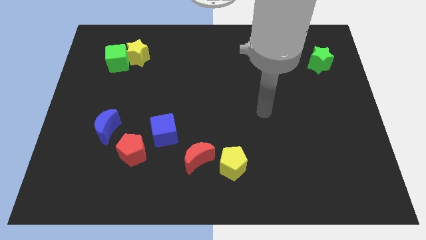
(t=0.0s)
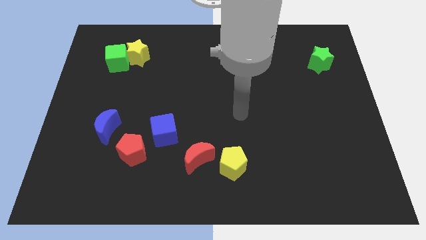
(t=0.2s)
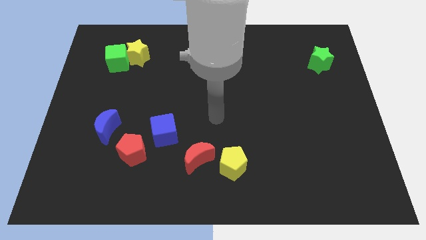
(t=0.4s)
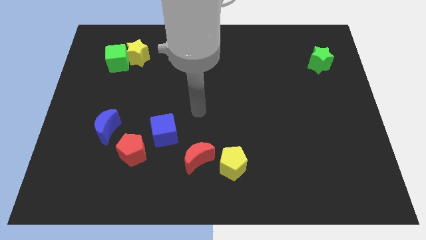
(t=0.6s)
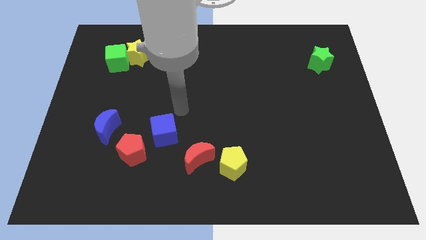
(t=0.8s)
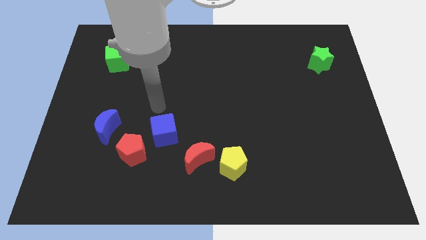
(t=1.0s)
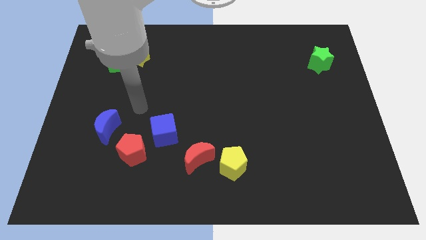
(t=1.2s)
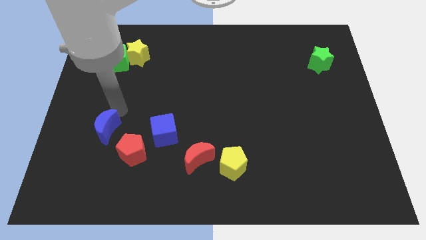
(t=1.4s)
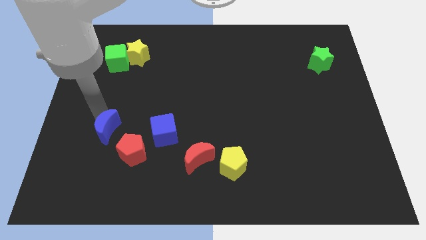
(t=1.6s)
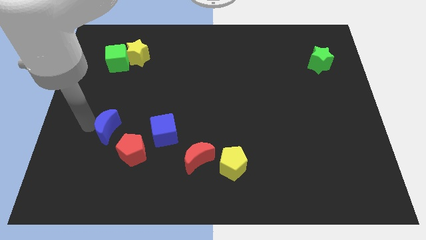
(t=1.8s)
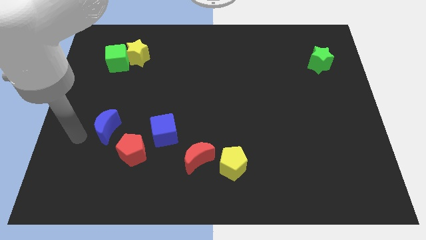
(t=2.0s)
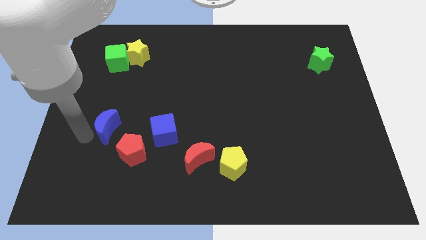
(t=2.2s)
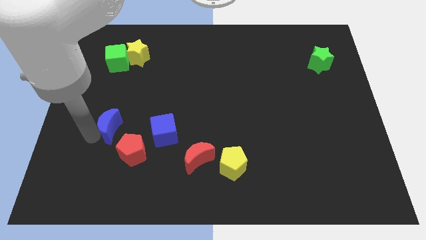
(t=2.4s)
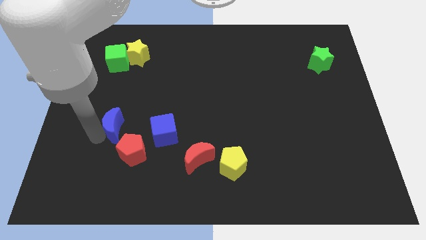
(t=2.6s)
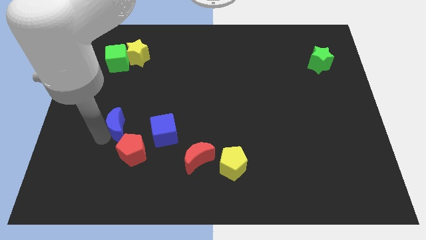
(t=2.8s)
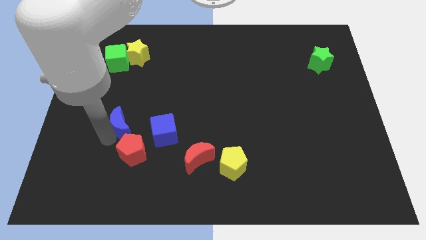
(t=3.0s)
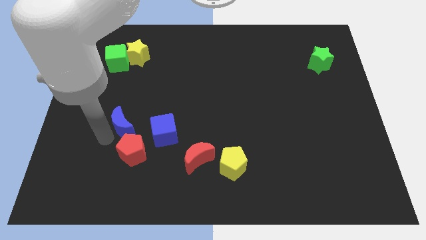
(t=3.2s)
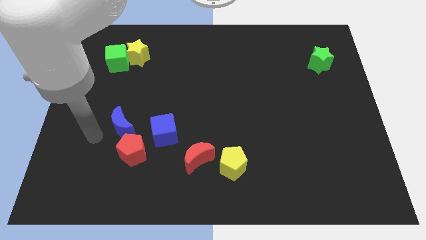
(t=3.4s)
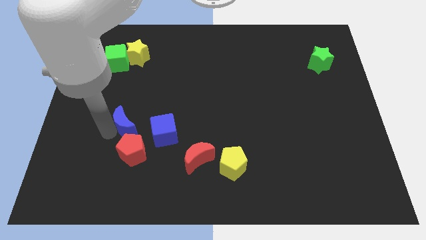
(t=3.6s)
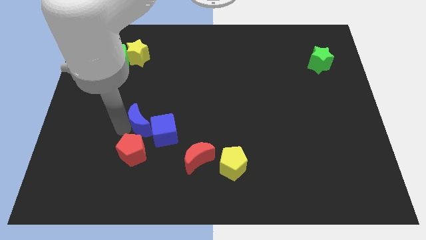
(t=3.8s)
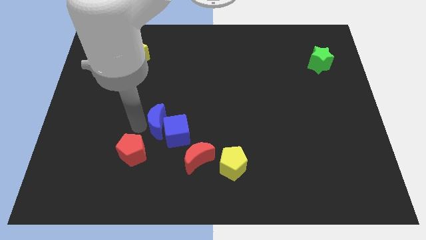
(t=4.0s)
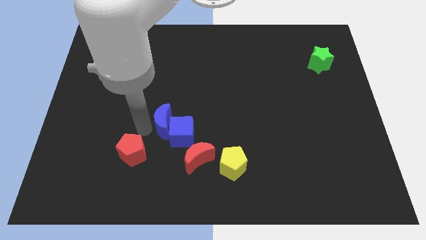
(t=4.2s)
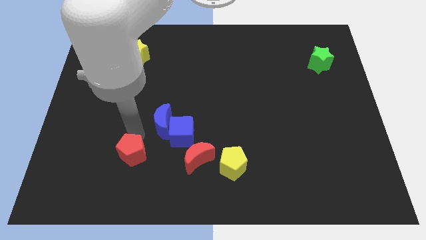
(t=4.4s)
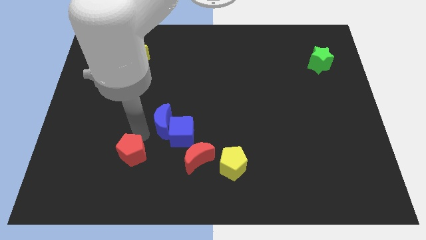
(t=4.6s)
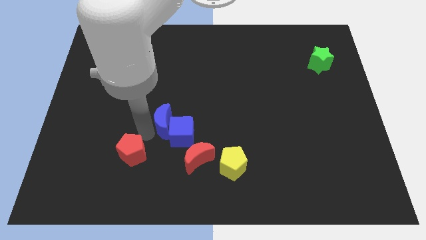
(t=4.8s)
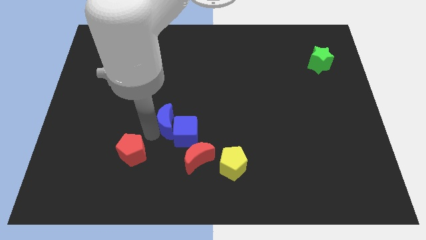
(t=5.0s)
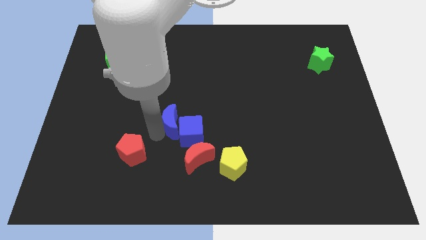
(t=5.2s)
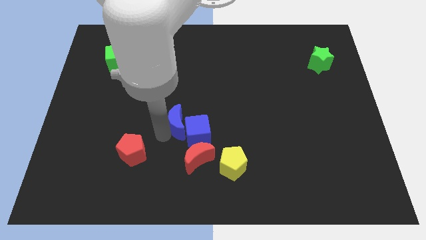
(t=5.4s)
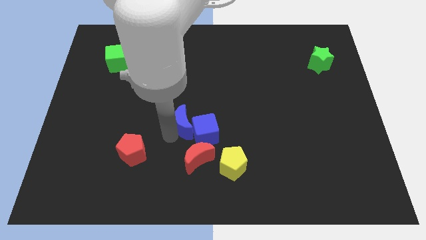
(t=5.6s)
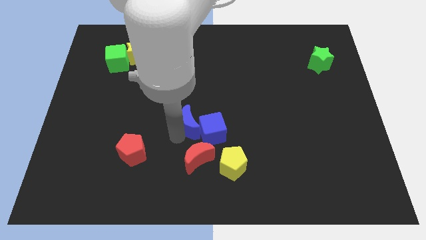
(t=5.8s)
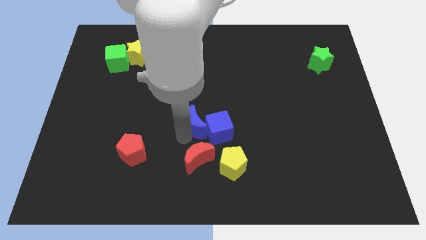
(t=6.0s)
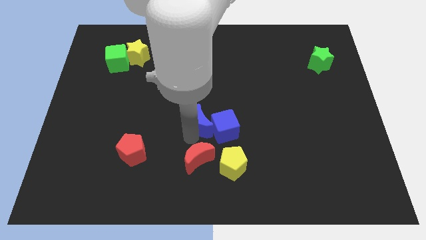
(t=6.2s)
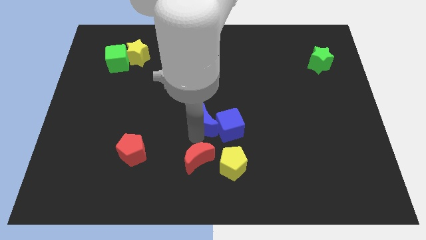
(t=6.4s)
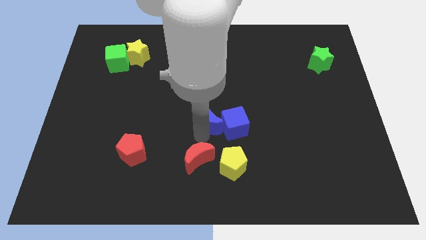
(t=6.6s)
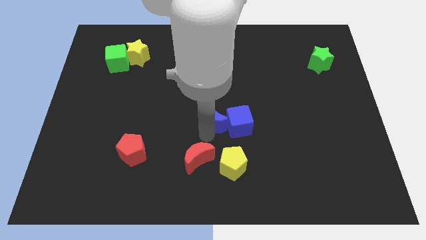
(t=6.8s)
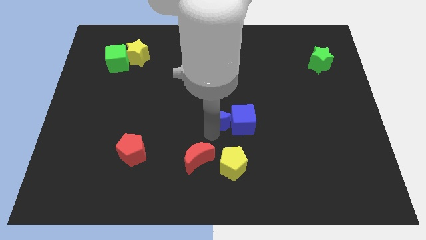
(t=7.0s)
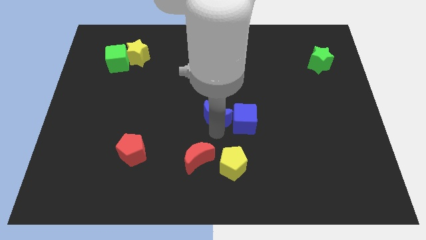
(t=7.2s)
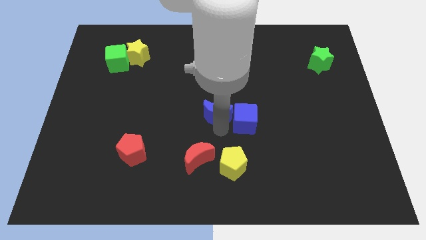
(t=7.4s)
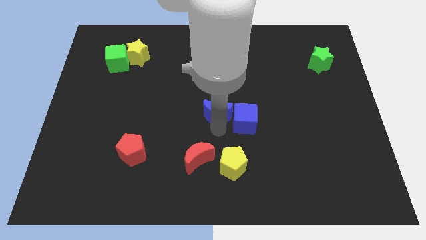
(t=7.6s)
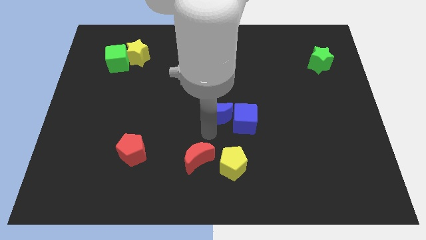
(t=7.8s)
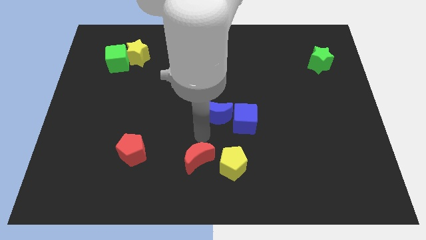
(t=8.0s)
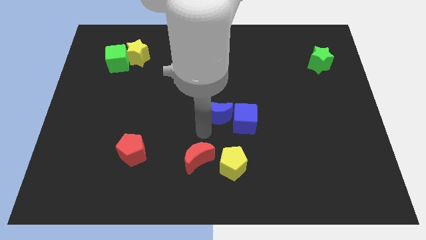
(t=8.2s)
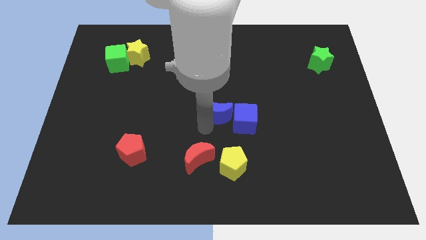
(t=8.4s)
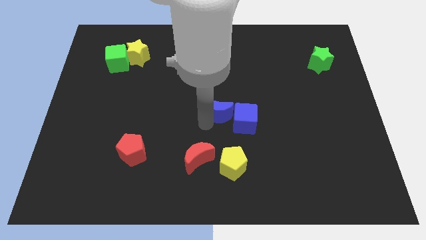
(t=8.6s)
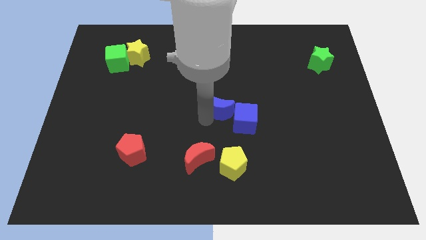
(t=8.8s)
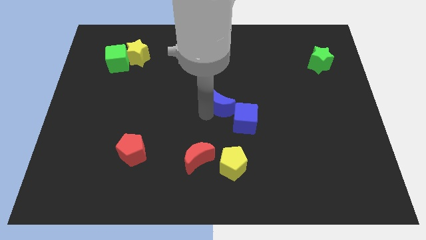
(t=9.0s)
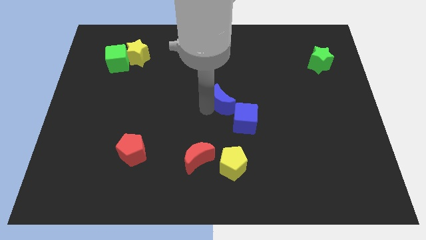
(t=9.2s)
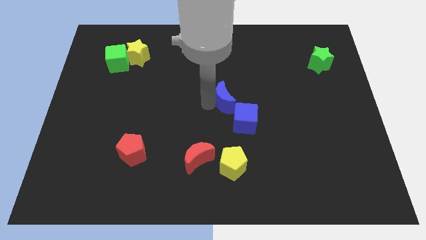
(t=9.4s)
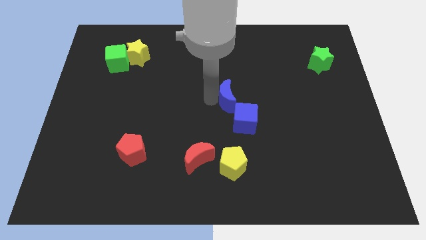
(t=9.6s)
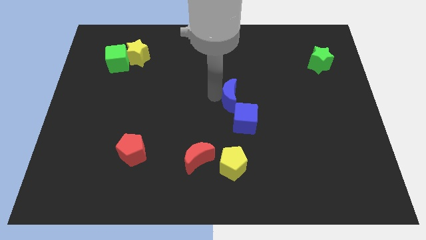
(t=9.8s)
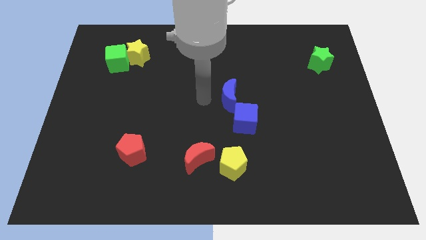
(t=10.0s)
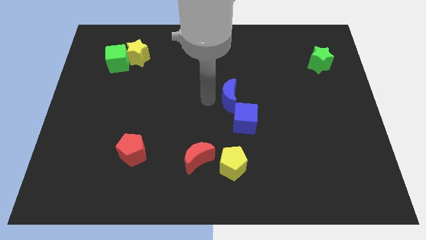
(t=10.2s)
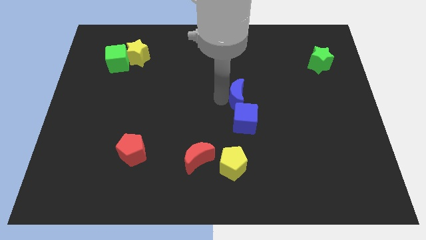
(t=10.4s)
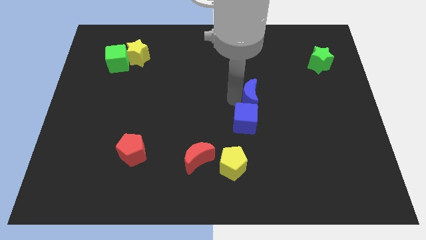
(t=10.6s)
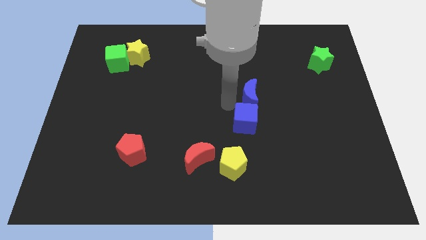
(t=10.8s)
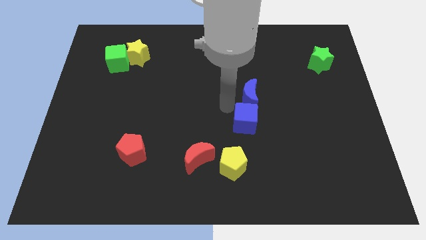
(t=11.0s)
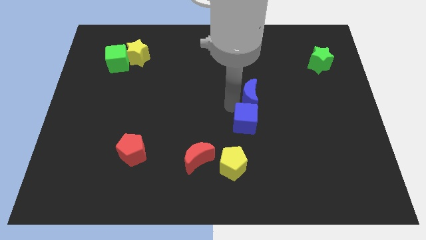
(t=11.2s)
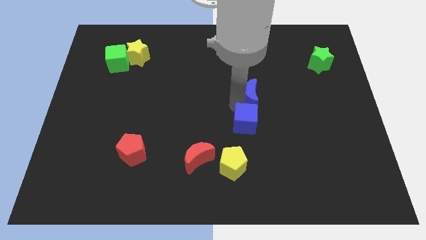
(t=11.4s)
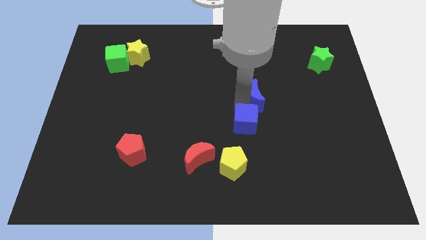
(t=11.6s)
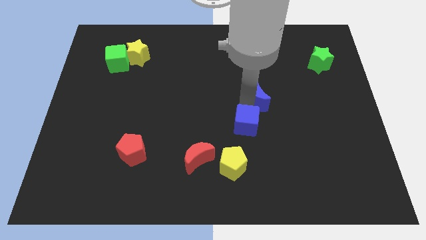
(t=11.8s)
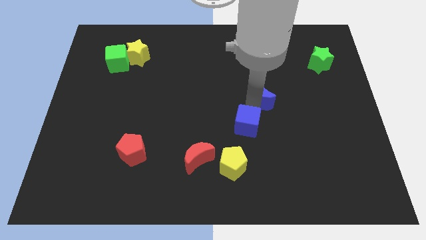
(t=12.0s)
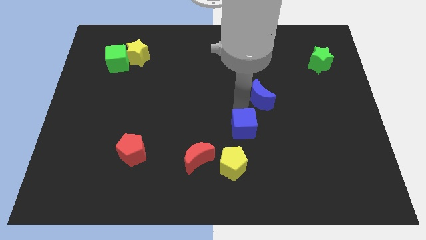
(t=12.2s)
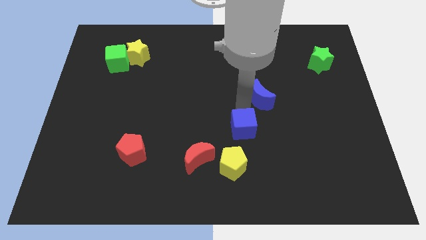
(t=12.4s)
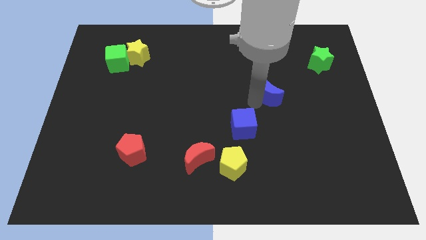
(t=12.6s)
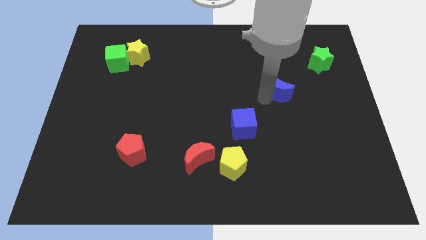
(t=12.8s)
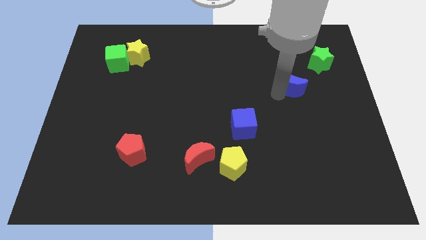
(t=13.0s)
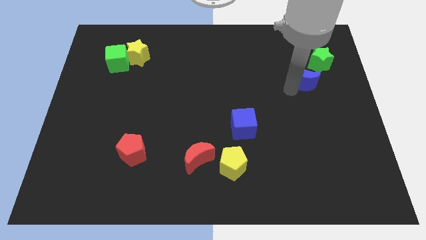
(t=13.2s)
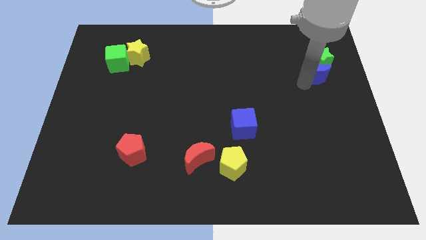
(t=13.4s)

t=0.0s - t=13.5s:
push the blue moon to the green star

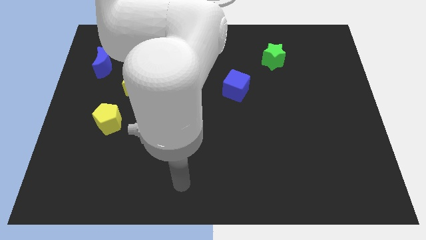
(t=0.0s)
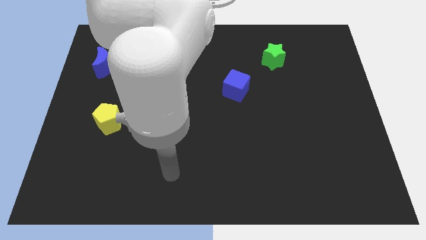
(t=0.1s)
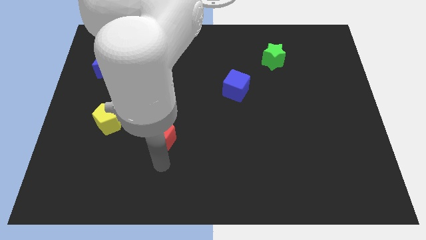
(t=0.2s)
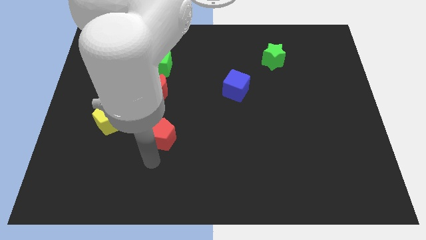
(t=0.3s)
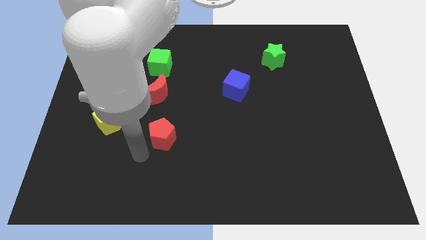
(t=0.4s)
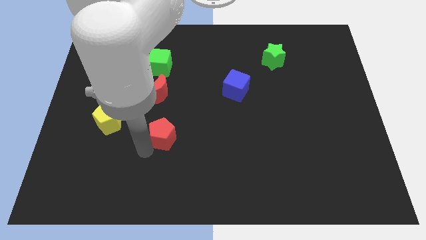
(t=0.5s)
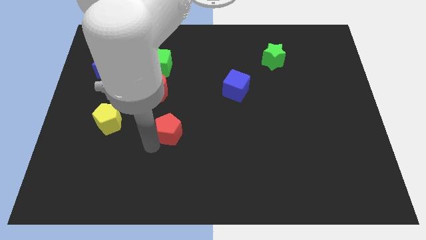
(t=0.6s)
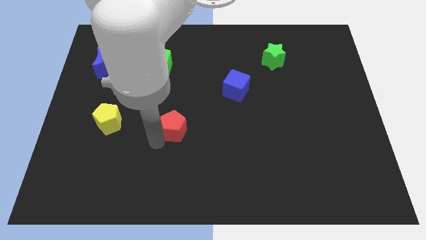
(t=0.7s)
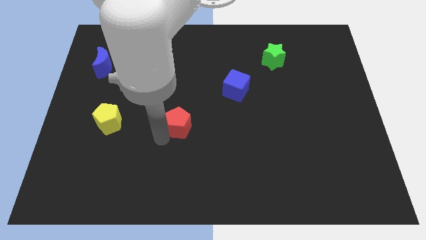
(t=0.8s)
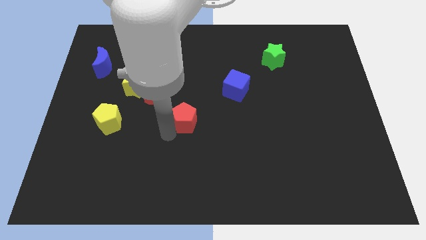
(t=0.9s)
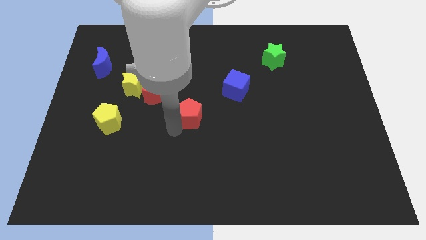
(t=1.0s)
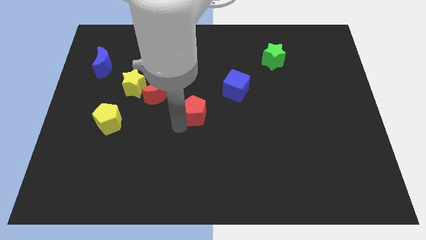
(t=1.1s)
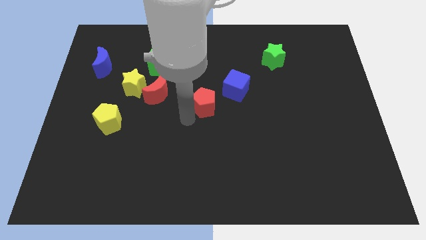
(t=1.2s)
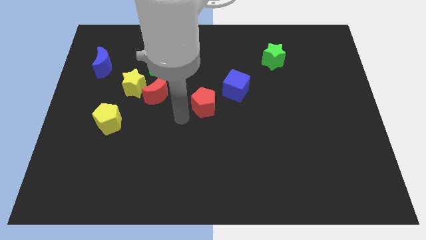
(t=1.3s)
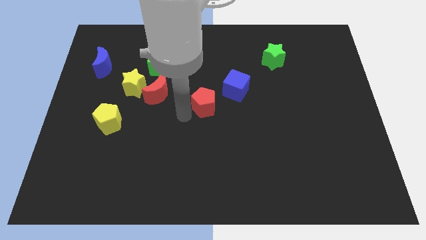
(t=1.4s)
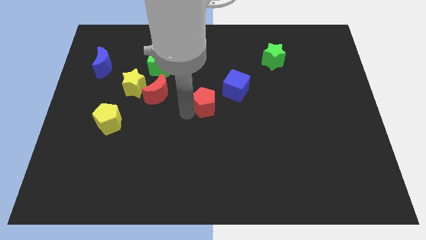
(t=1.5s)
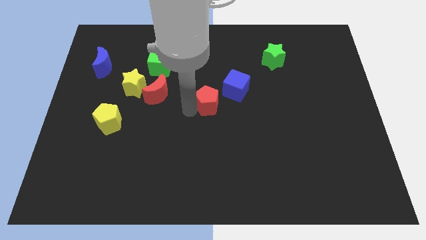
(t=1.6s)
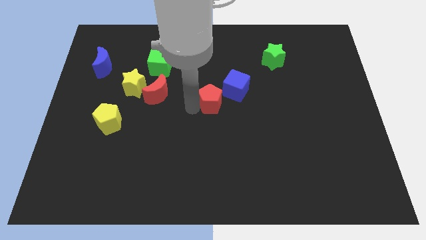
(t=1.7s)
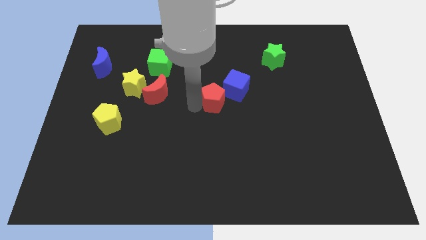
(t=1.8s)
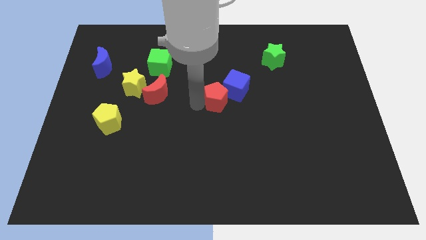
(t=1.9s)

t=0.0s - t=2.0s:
move the red pentagon towards the blue cube
